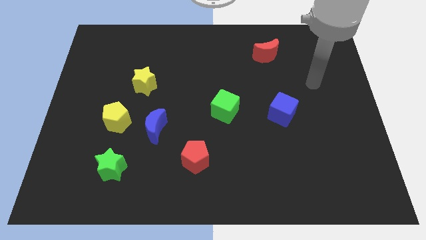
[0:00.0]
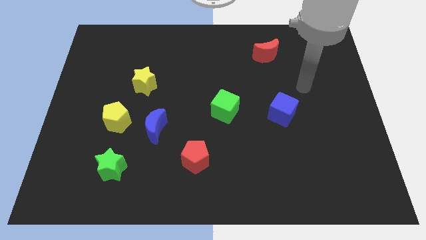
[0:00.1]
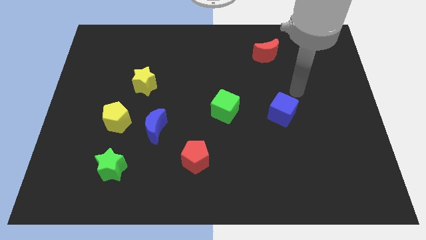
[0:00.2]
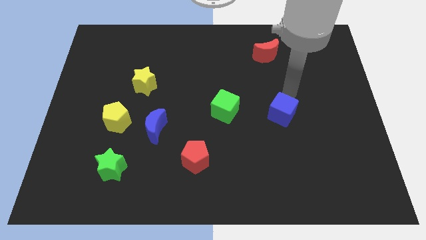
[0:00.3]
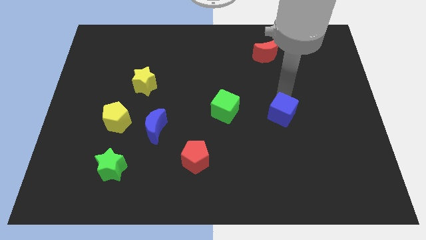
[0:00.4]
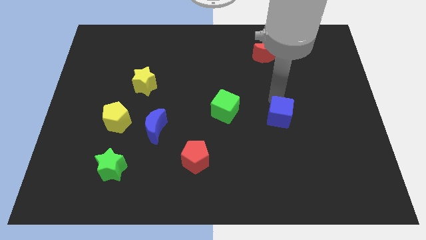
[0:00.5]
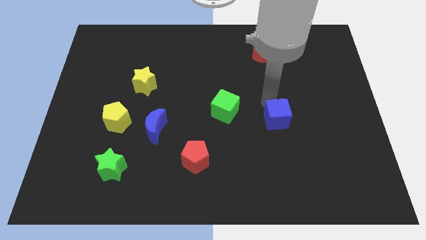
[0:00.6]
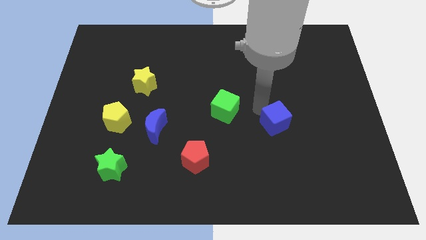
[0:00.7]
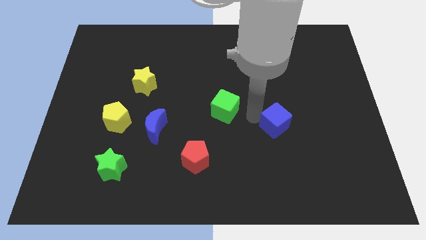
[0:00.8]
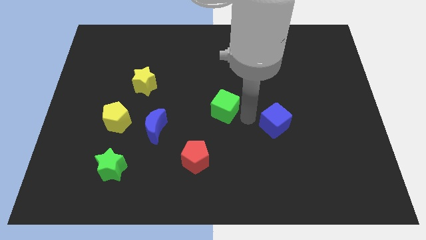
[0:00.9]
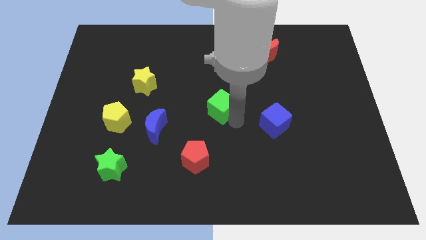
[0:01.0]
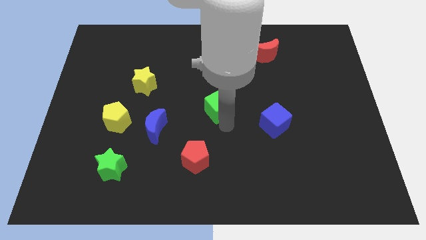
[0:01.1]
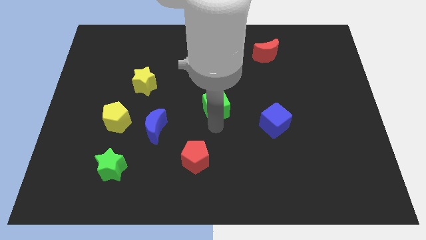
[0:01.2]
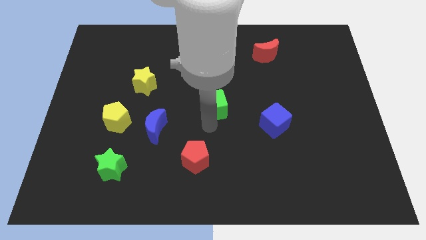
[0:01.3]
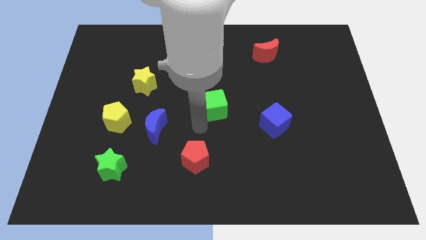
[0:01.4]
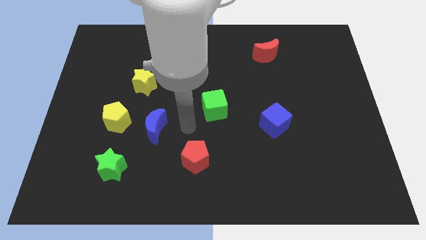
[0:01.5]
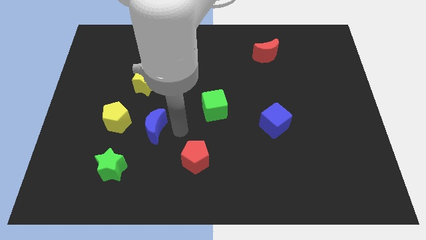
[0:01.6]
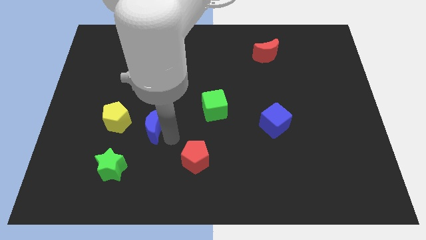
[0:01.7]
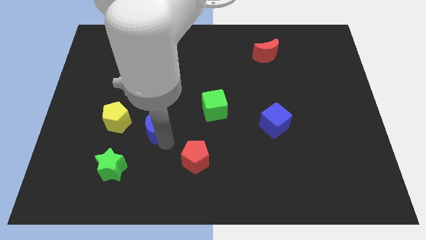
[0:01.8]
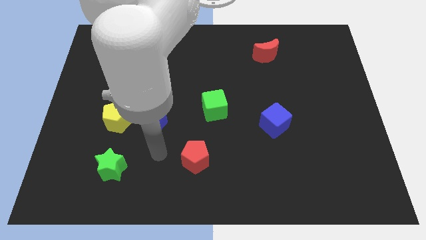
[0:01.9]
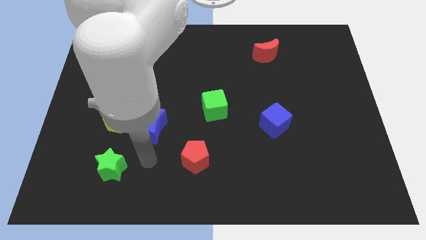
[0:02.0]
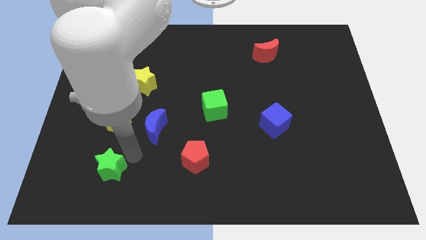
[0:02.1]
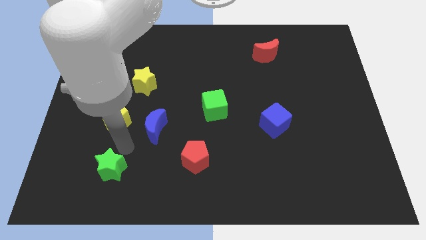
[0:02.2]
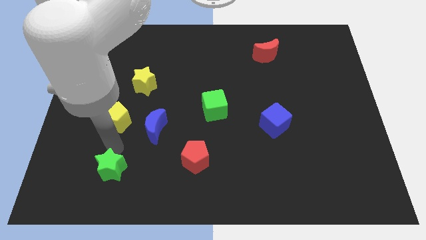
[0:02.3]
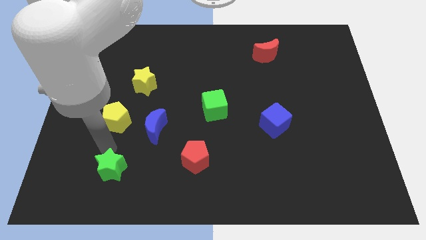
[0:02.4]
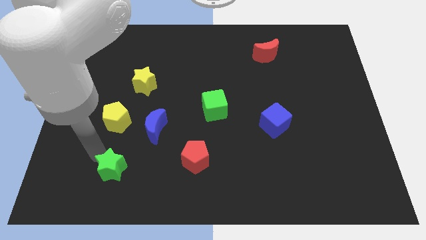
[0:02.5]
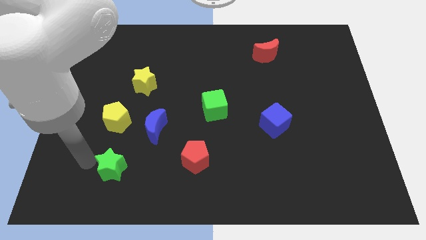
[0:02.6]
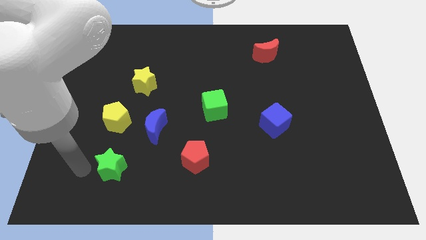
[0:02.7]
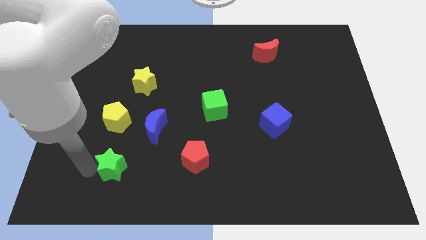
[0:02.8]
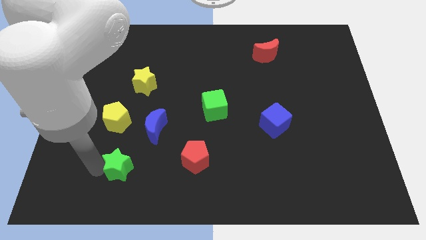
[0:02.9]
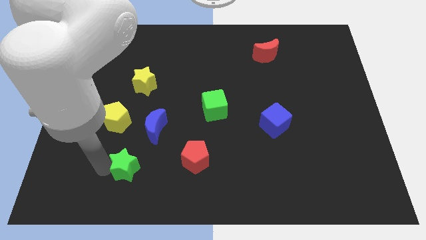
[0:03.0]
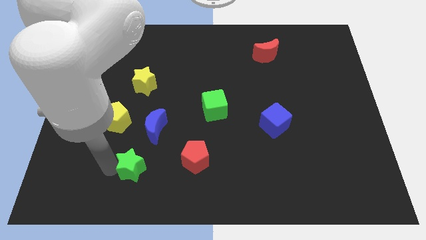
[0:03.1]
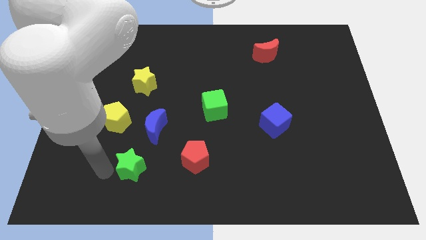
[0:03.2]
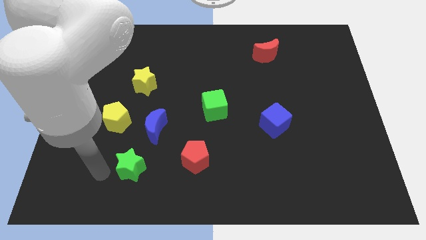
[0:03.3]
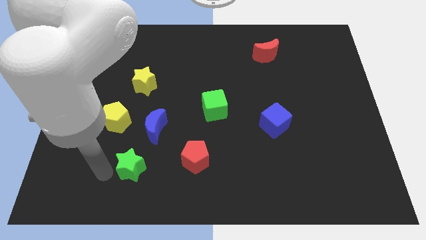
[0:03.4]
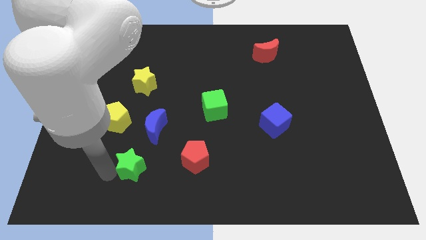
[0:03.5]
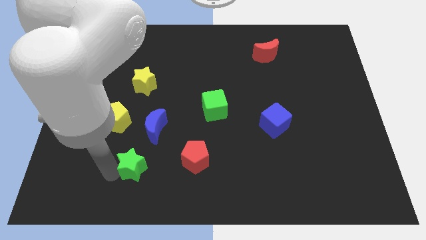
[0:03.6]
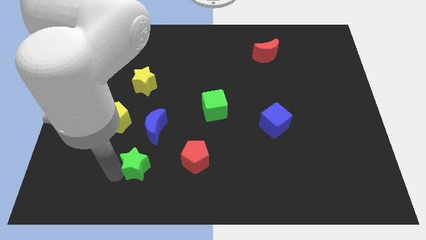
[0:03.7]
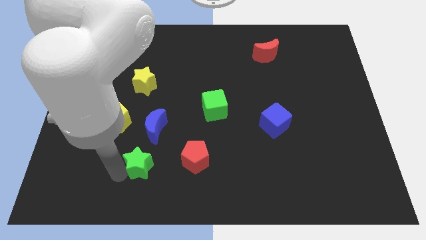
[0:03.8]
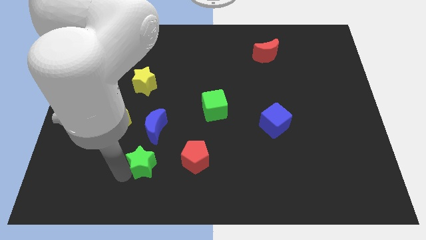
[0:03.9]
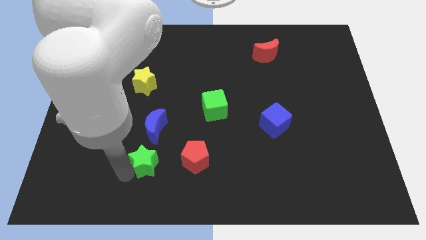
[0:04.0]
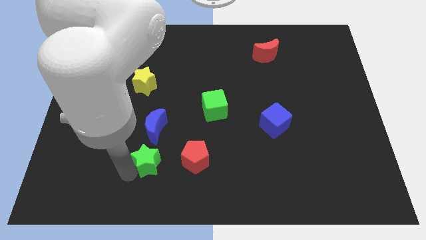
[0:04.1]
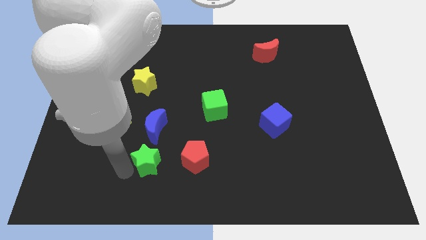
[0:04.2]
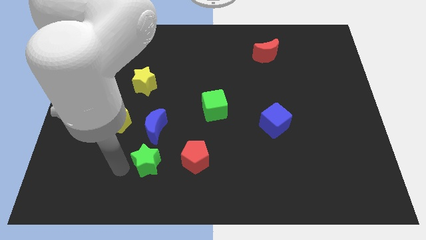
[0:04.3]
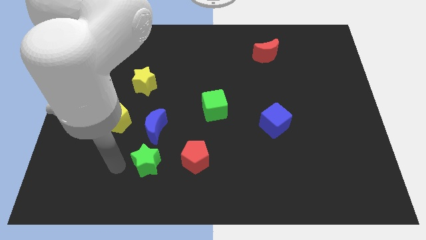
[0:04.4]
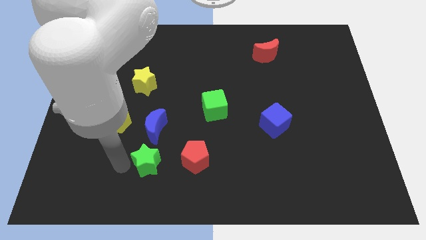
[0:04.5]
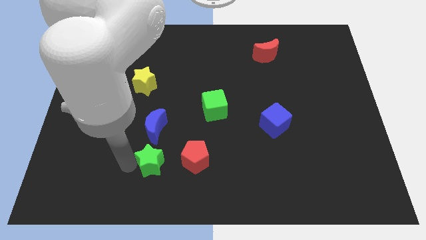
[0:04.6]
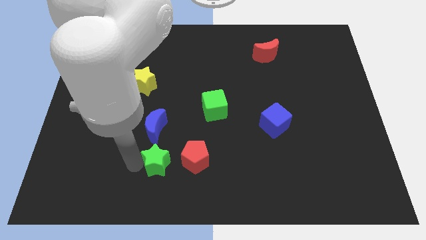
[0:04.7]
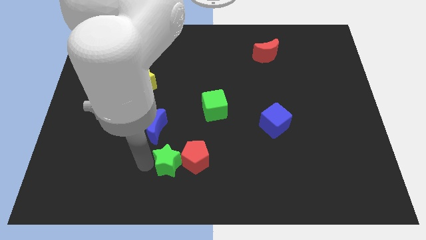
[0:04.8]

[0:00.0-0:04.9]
move the green star towards the red pentagon

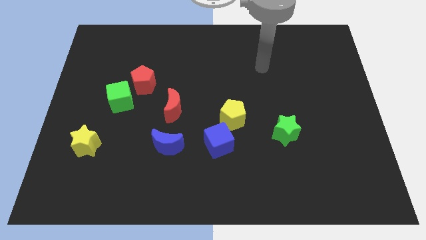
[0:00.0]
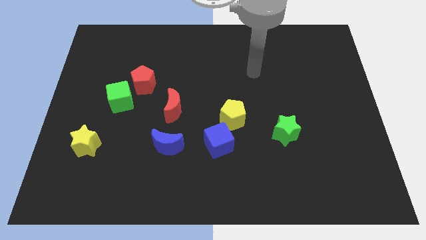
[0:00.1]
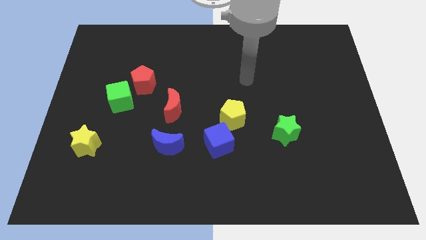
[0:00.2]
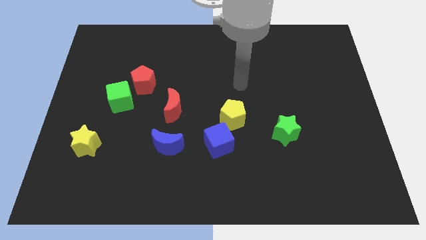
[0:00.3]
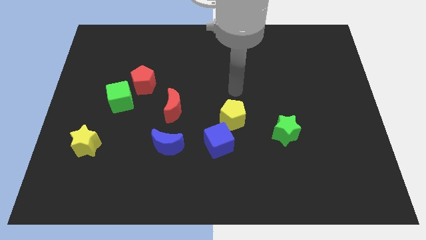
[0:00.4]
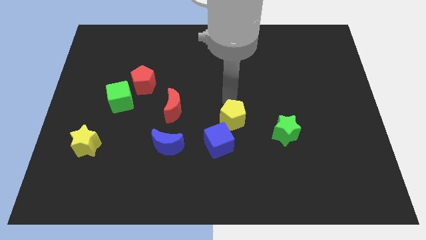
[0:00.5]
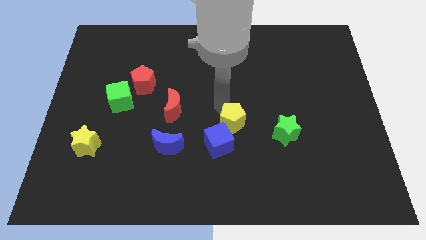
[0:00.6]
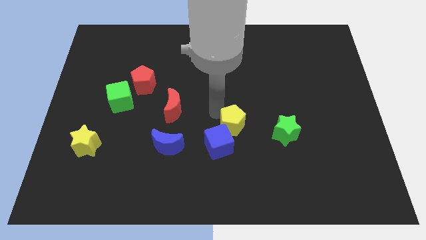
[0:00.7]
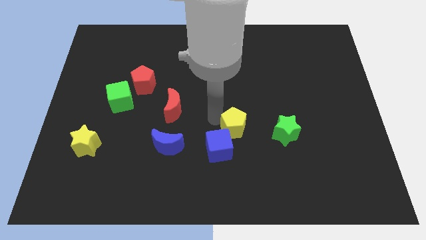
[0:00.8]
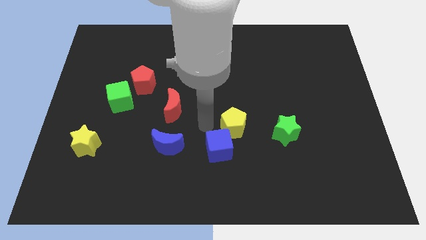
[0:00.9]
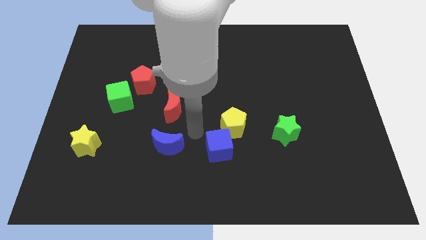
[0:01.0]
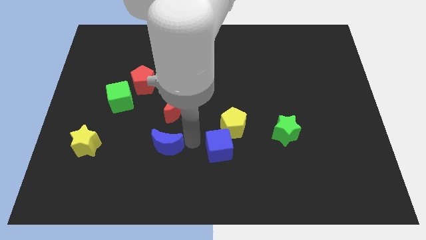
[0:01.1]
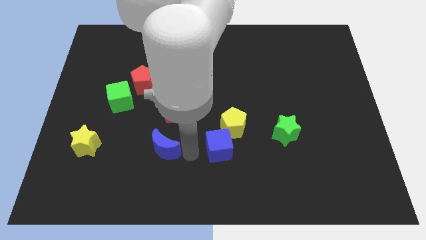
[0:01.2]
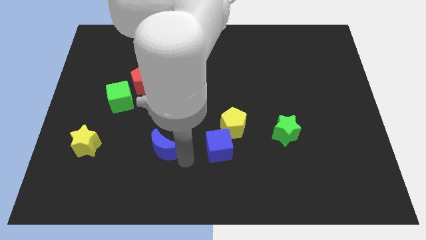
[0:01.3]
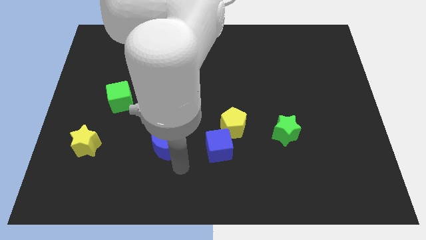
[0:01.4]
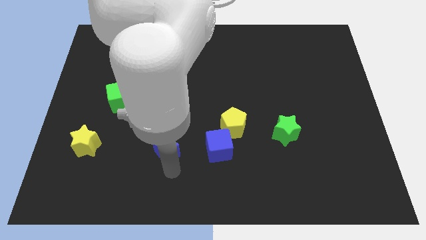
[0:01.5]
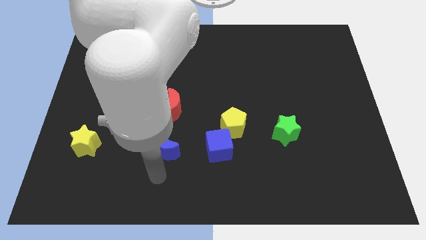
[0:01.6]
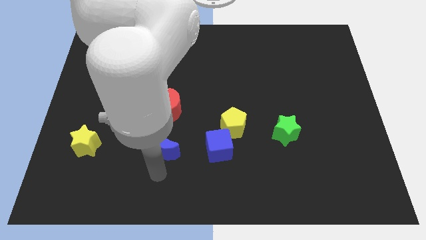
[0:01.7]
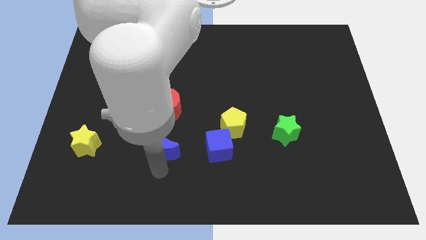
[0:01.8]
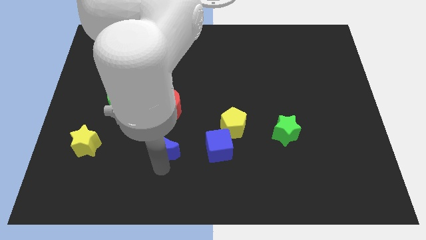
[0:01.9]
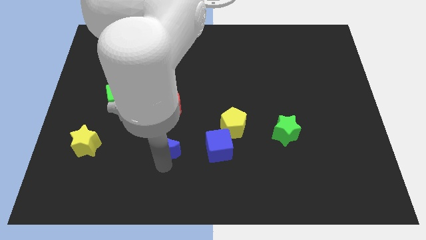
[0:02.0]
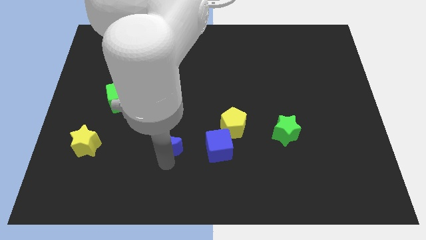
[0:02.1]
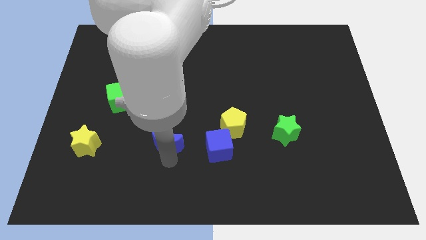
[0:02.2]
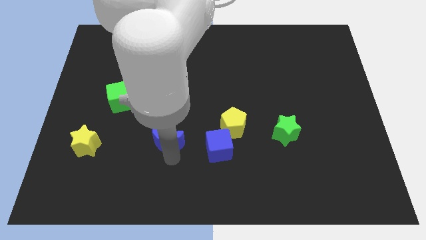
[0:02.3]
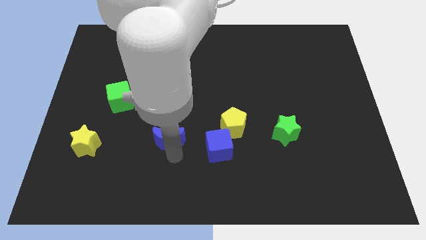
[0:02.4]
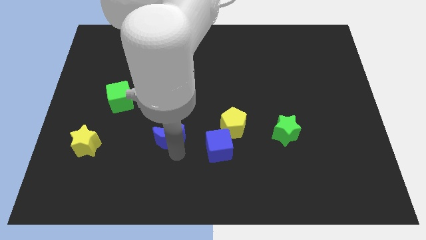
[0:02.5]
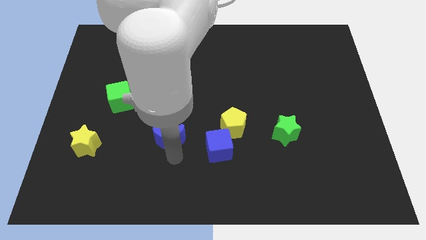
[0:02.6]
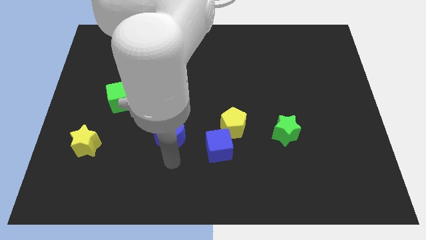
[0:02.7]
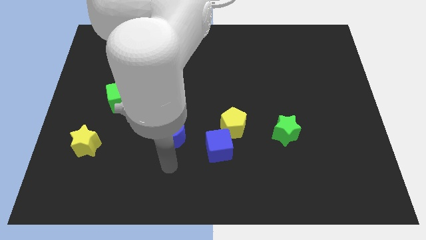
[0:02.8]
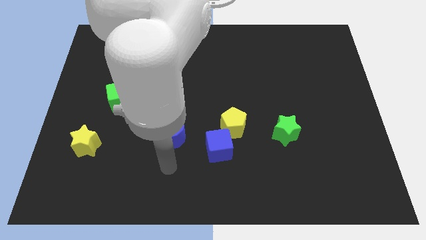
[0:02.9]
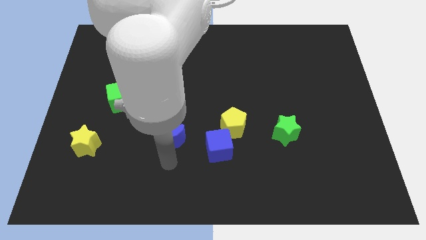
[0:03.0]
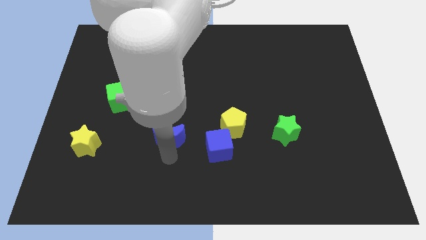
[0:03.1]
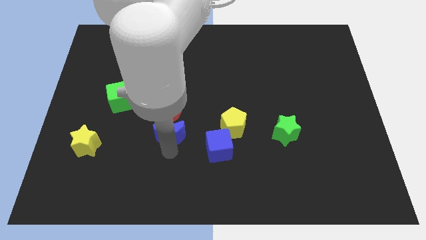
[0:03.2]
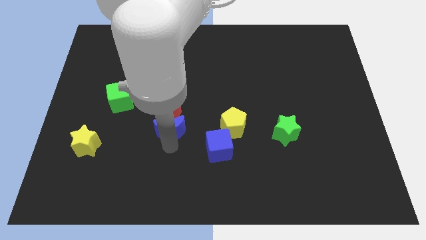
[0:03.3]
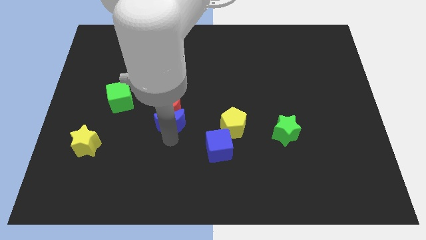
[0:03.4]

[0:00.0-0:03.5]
slide the blue moon to the red moon
